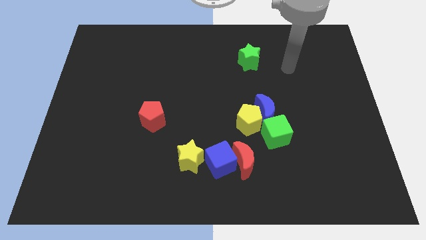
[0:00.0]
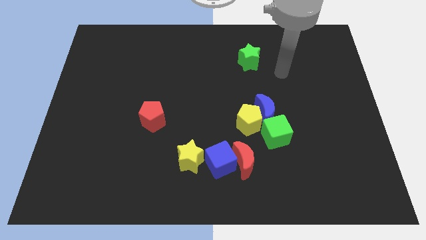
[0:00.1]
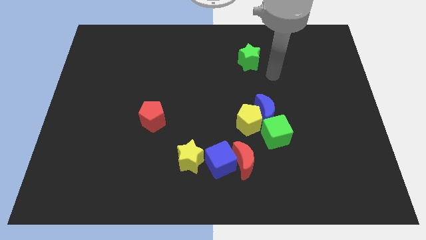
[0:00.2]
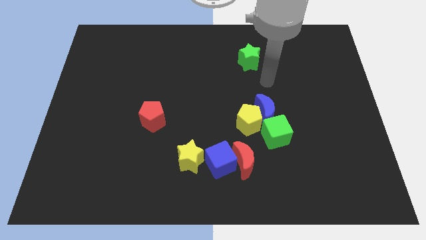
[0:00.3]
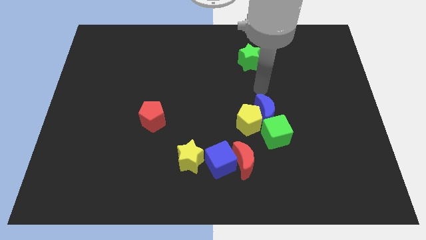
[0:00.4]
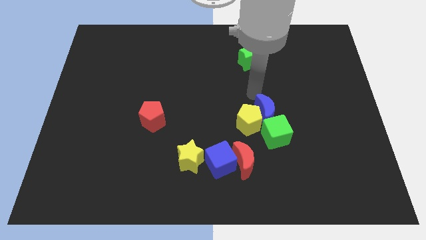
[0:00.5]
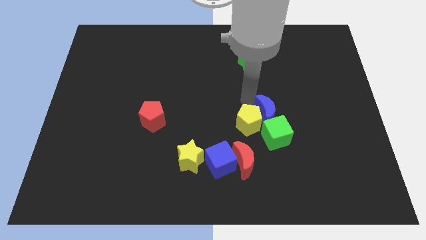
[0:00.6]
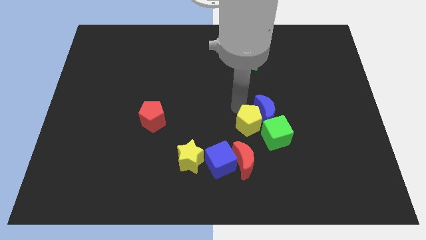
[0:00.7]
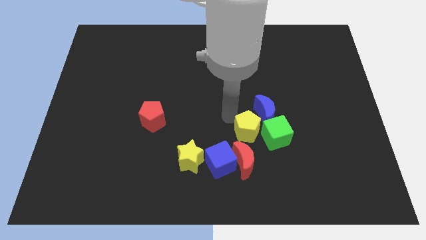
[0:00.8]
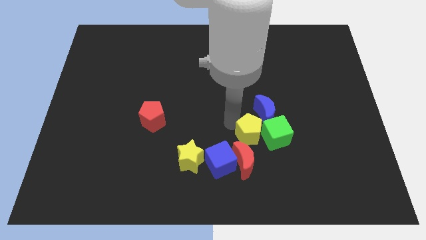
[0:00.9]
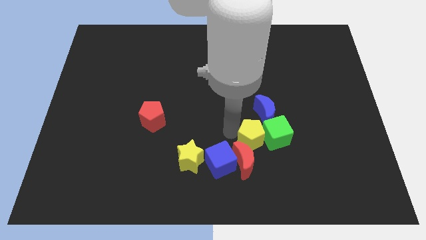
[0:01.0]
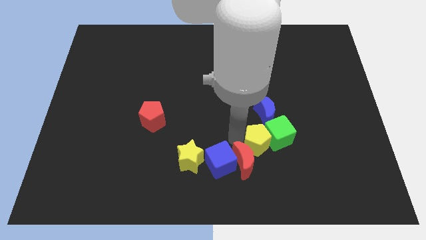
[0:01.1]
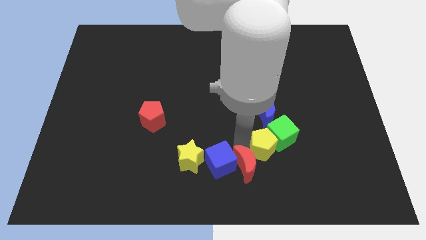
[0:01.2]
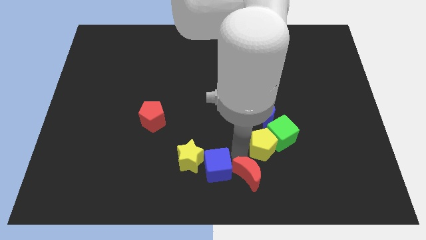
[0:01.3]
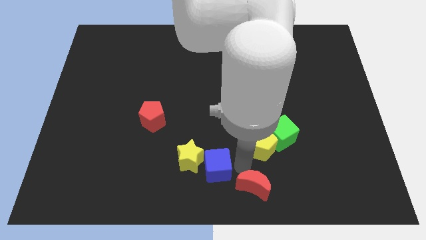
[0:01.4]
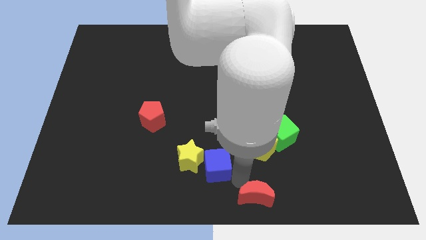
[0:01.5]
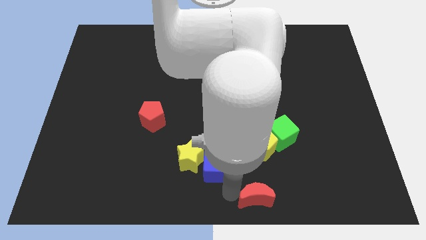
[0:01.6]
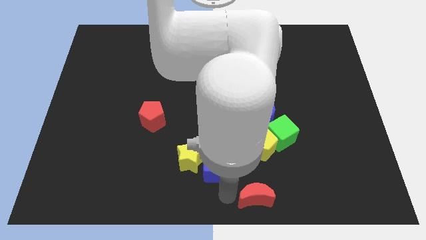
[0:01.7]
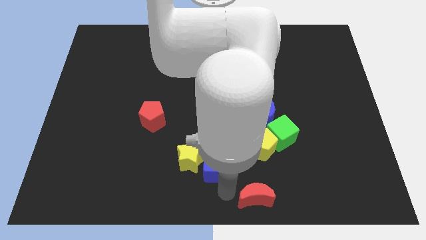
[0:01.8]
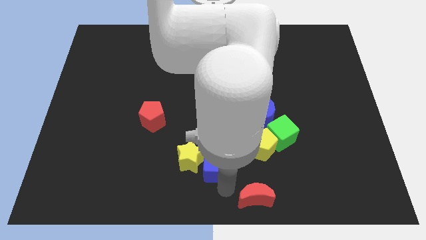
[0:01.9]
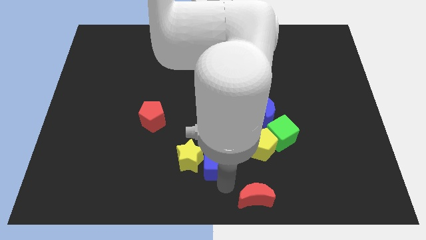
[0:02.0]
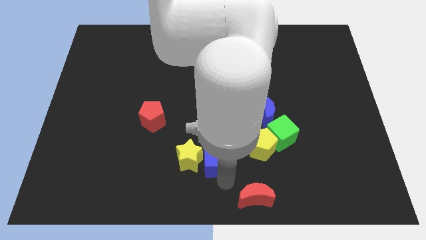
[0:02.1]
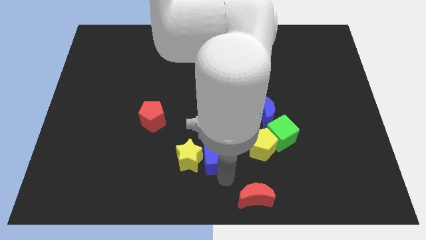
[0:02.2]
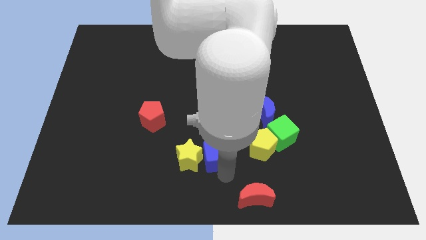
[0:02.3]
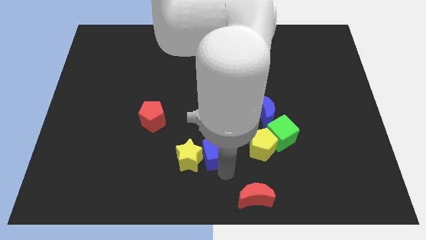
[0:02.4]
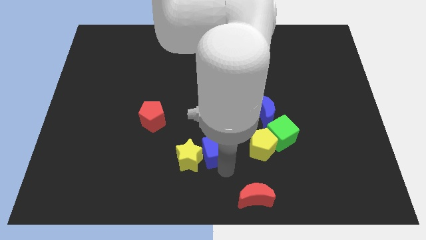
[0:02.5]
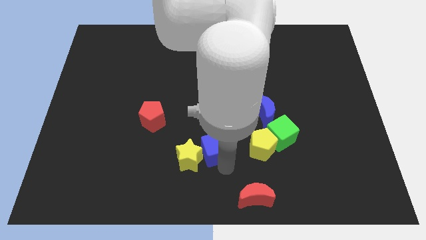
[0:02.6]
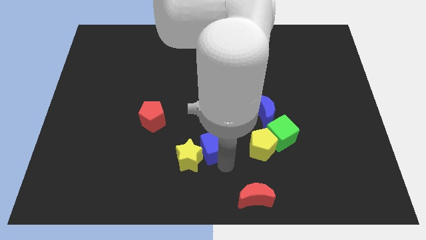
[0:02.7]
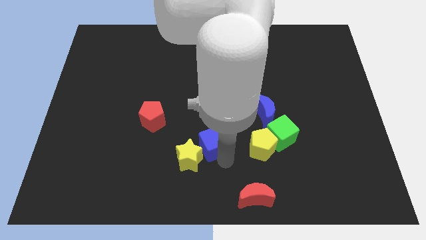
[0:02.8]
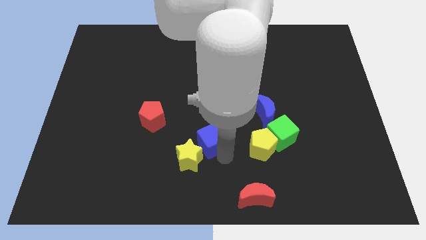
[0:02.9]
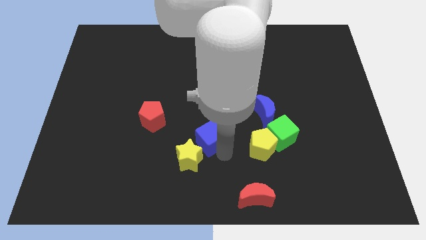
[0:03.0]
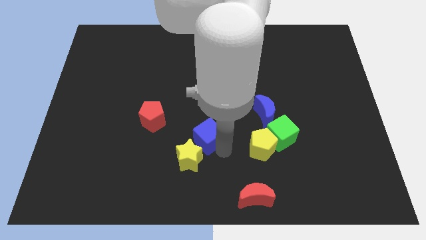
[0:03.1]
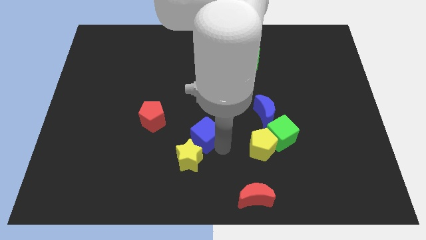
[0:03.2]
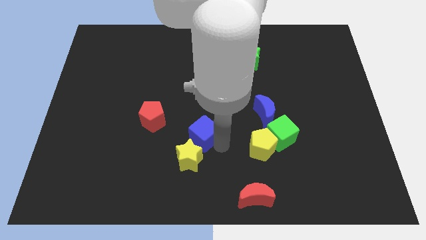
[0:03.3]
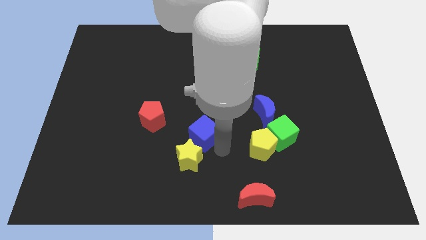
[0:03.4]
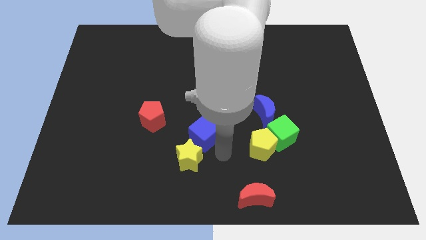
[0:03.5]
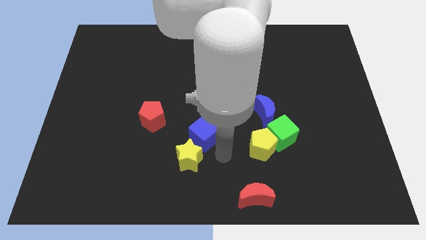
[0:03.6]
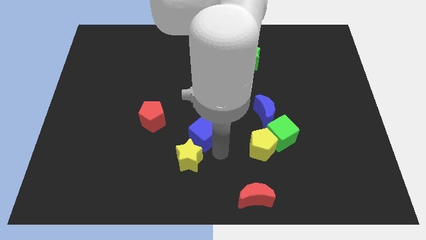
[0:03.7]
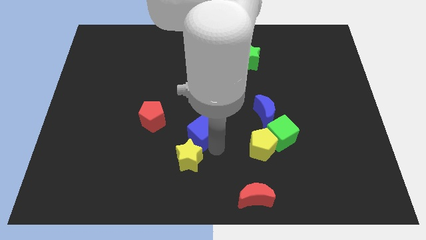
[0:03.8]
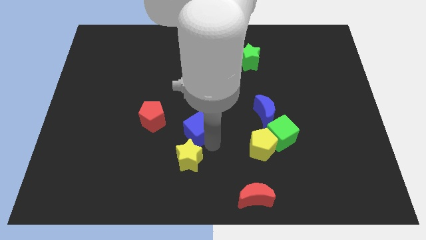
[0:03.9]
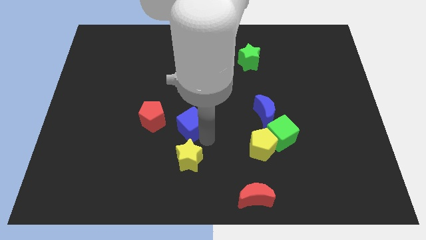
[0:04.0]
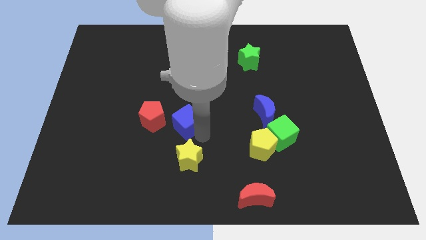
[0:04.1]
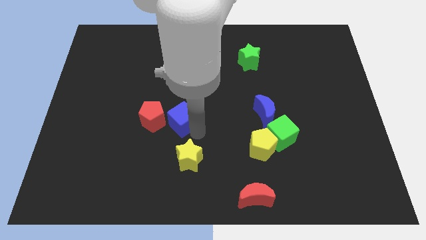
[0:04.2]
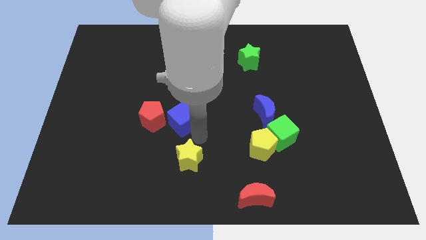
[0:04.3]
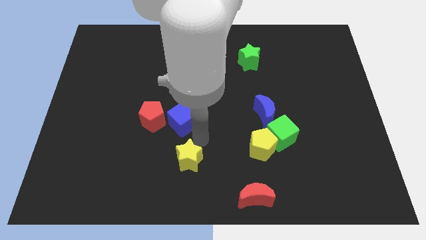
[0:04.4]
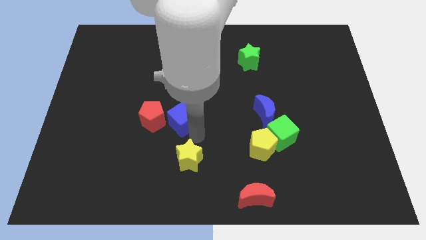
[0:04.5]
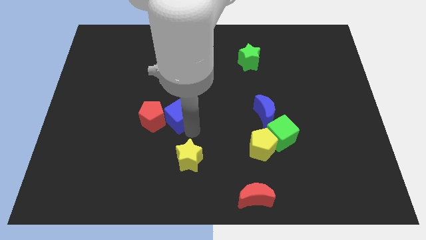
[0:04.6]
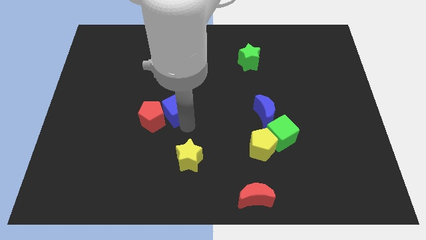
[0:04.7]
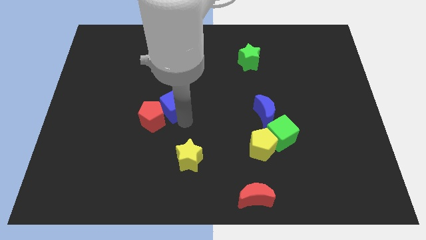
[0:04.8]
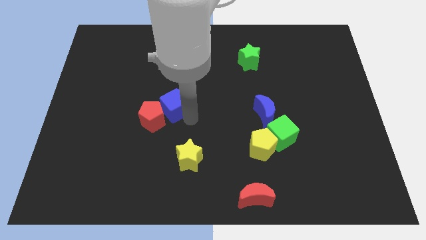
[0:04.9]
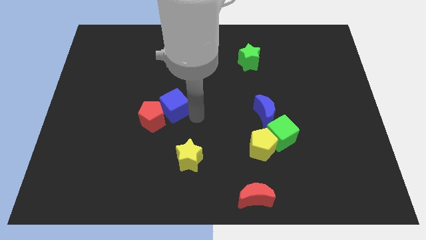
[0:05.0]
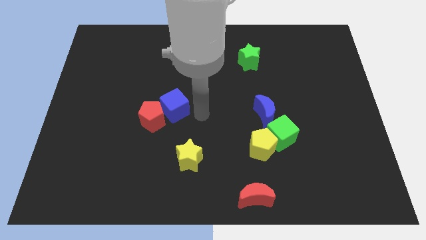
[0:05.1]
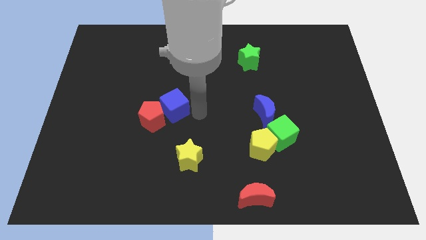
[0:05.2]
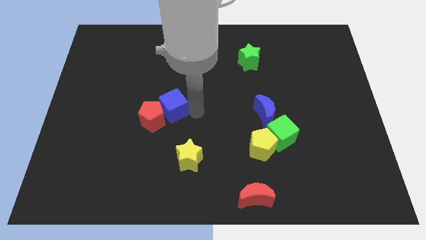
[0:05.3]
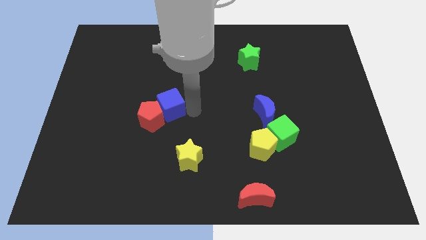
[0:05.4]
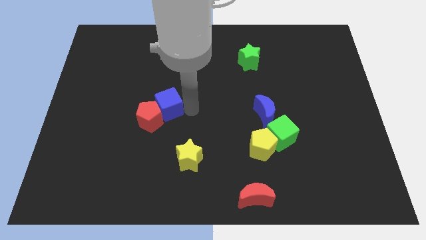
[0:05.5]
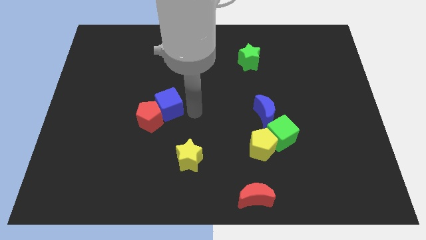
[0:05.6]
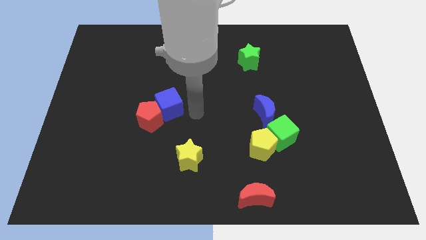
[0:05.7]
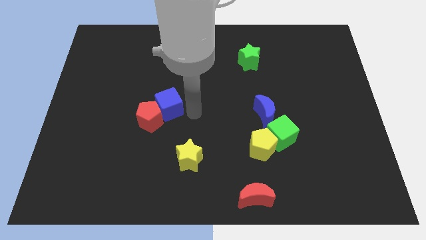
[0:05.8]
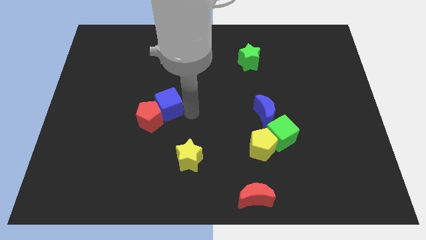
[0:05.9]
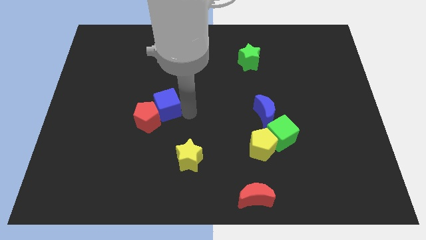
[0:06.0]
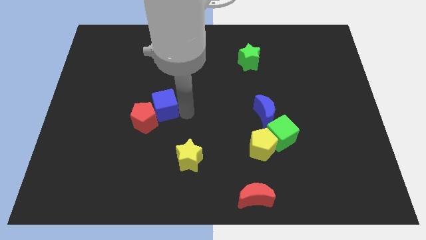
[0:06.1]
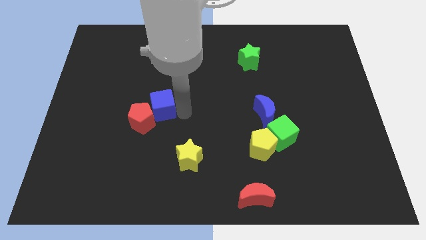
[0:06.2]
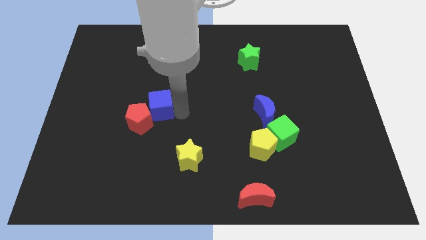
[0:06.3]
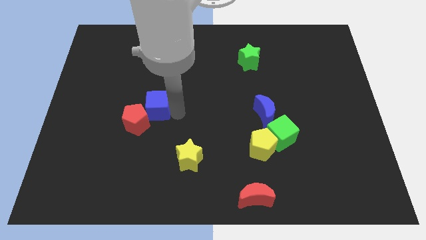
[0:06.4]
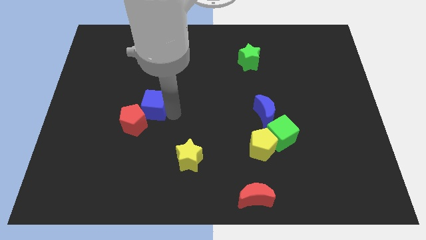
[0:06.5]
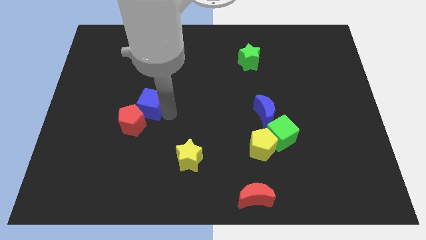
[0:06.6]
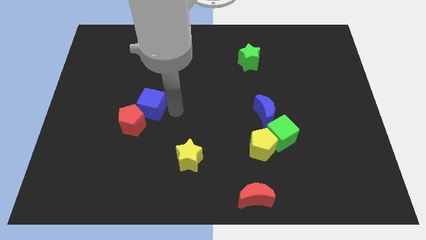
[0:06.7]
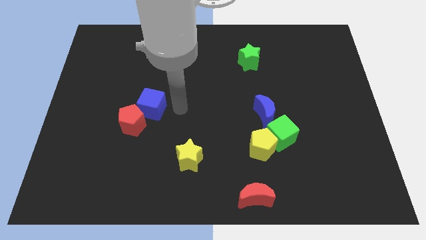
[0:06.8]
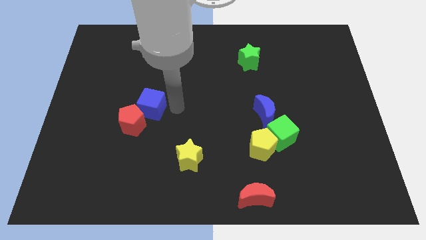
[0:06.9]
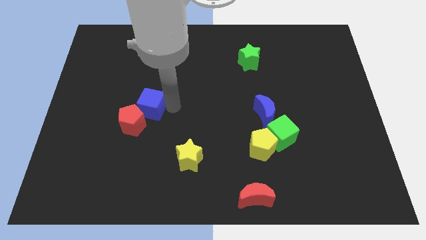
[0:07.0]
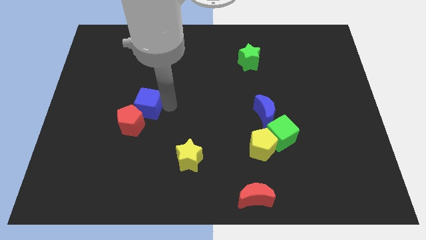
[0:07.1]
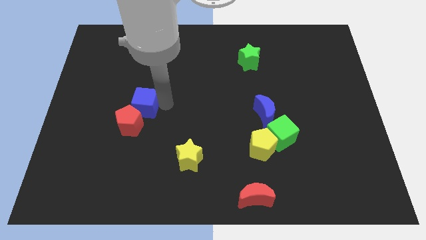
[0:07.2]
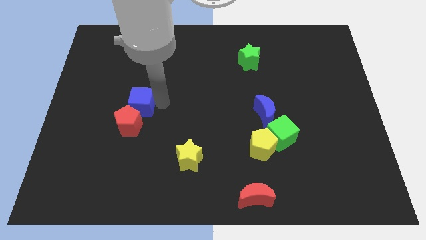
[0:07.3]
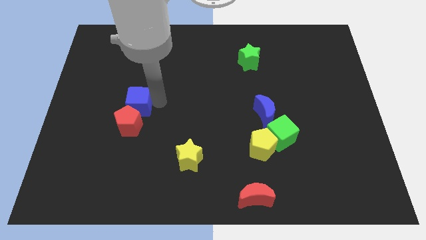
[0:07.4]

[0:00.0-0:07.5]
move the blue cube to the top left of the red pentagon

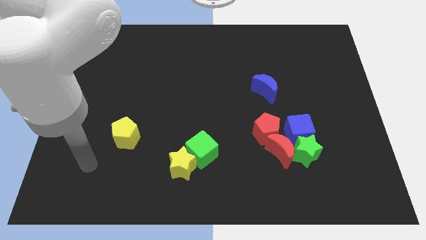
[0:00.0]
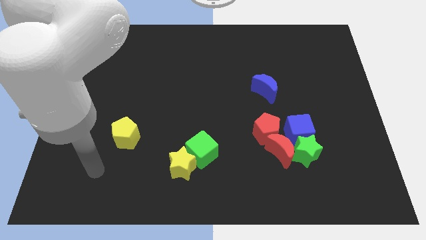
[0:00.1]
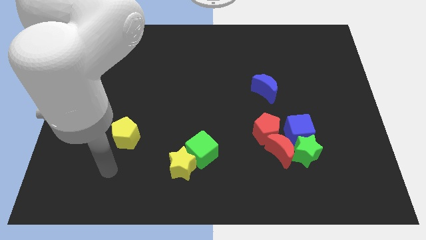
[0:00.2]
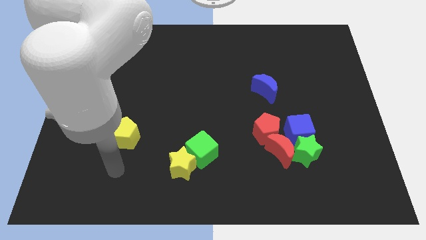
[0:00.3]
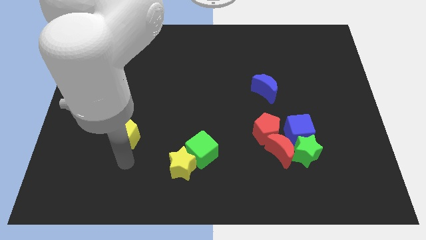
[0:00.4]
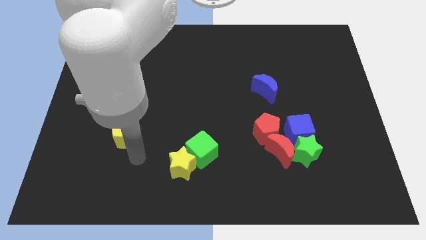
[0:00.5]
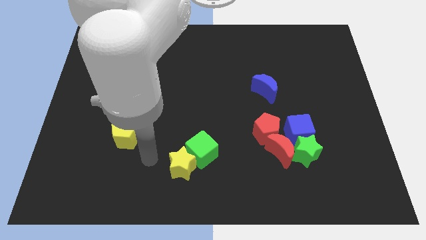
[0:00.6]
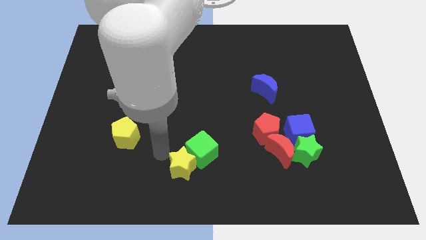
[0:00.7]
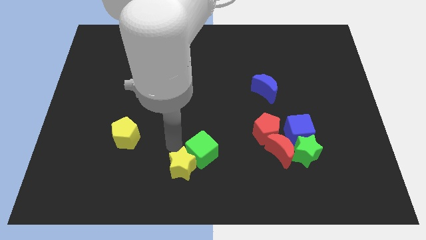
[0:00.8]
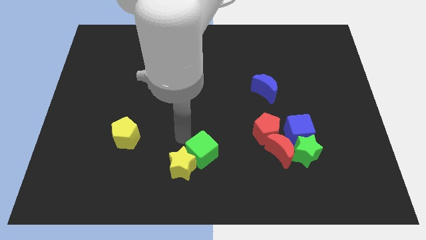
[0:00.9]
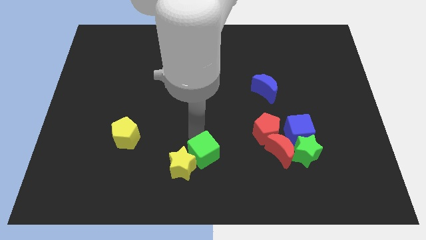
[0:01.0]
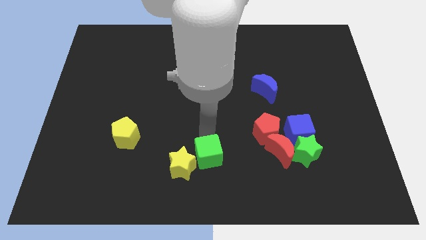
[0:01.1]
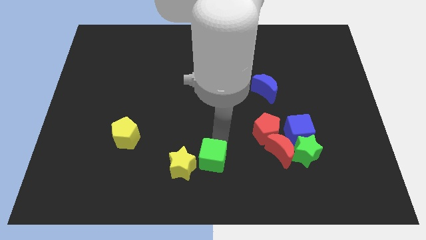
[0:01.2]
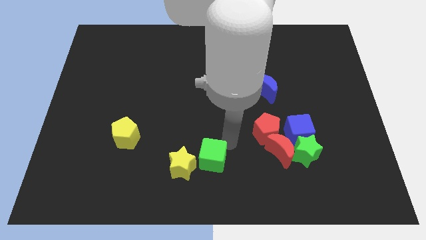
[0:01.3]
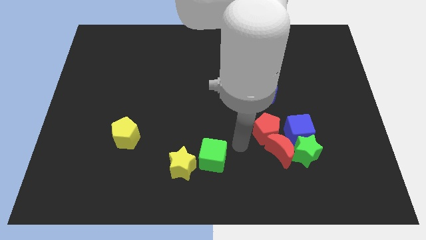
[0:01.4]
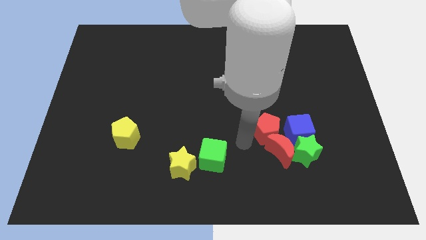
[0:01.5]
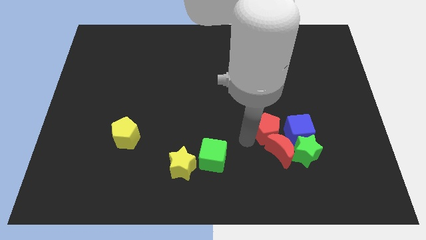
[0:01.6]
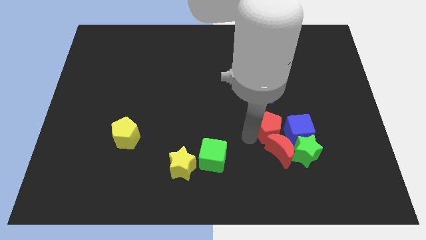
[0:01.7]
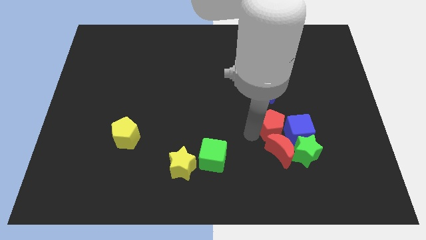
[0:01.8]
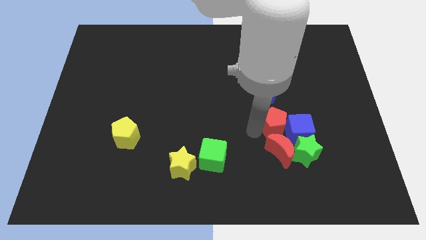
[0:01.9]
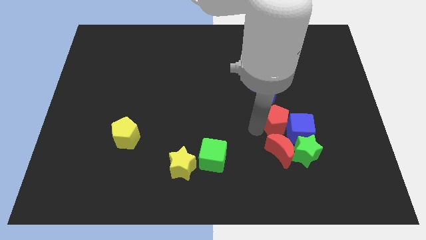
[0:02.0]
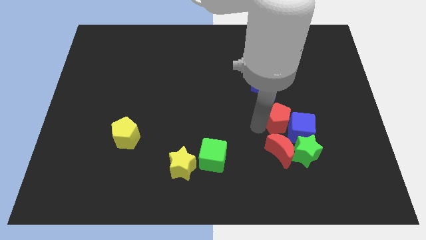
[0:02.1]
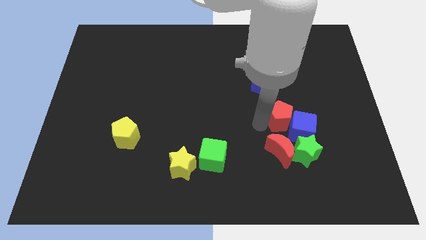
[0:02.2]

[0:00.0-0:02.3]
push the red pentagon to the top of the green star
